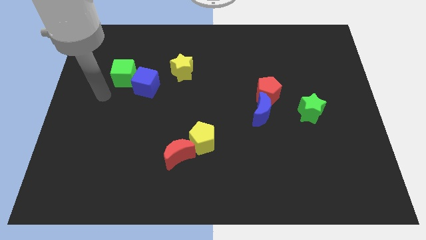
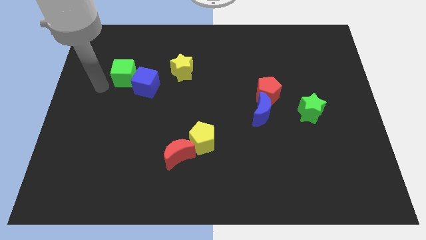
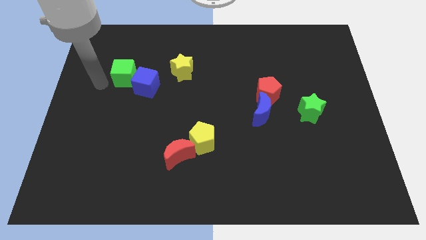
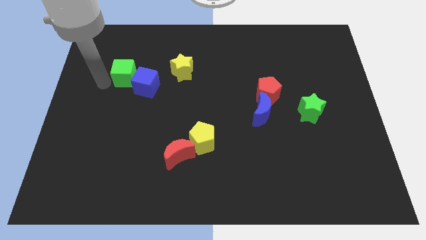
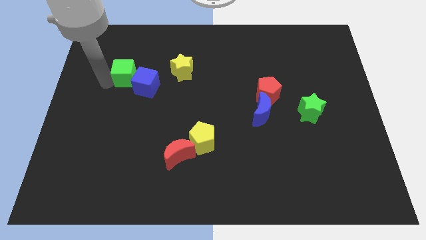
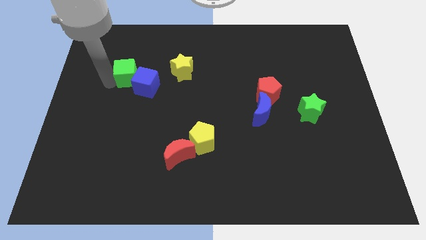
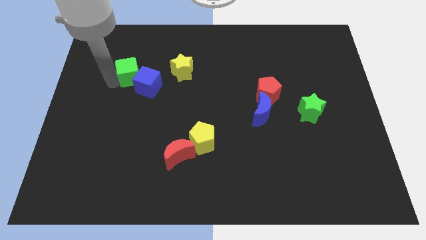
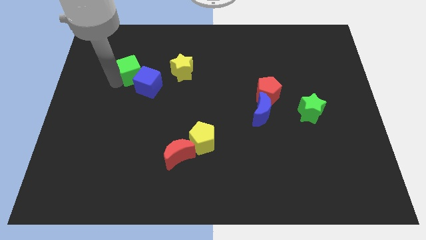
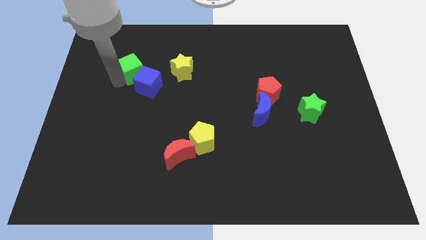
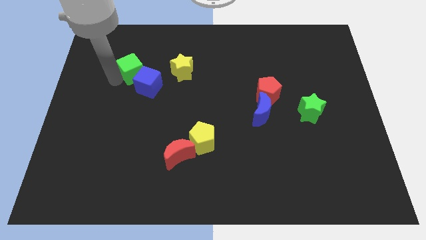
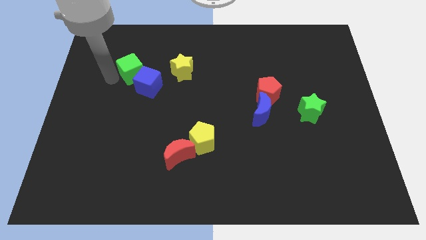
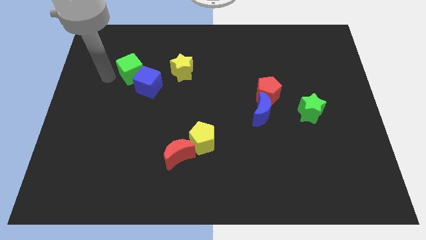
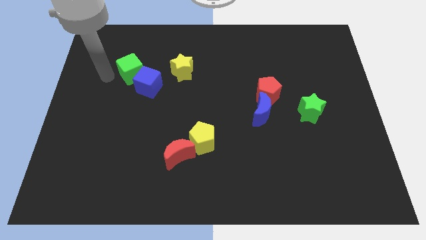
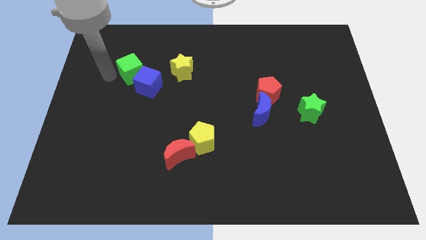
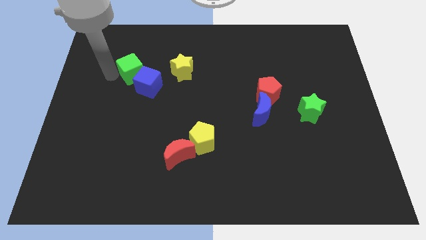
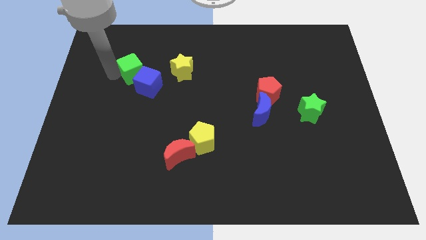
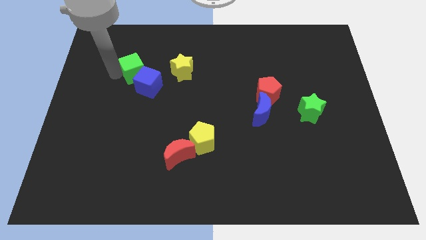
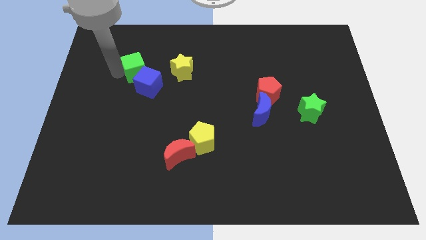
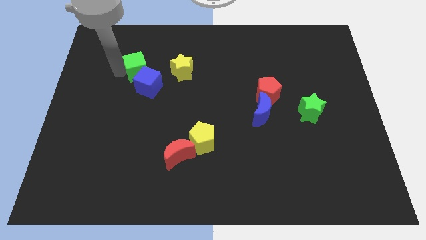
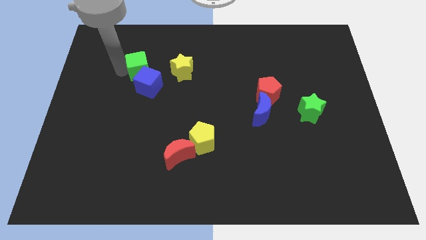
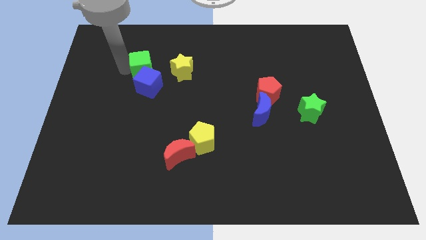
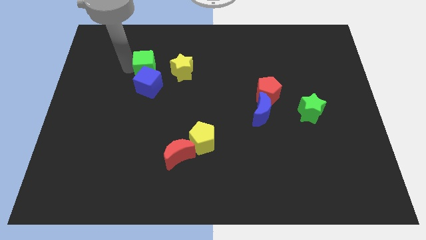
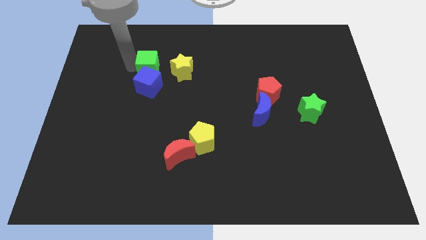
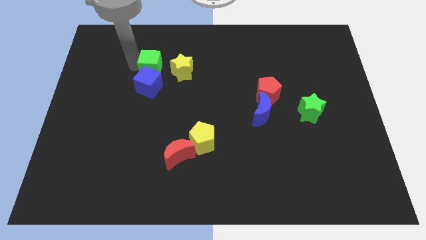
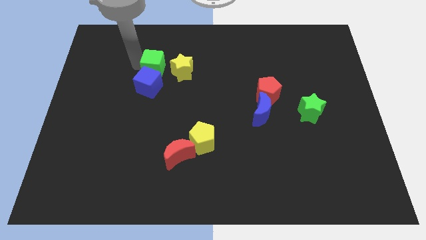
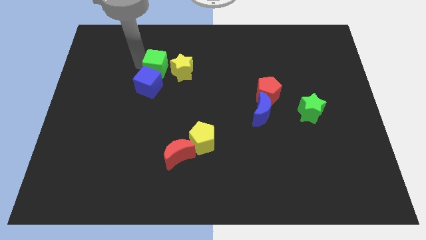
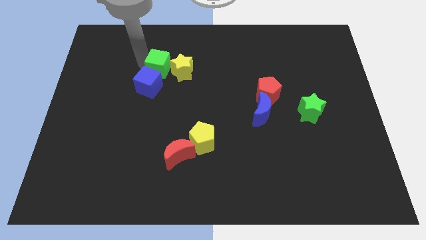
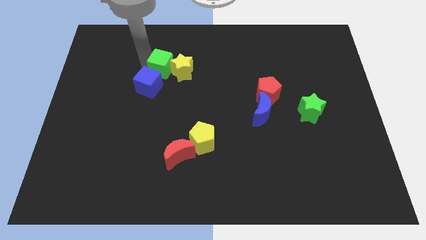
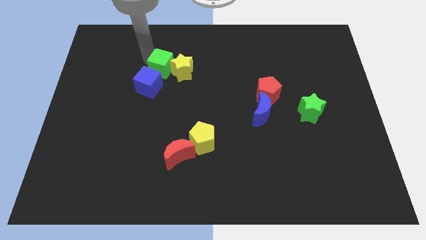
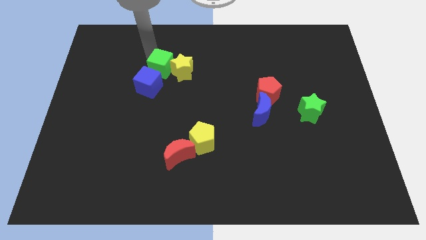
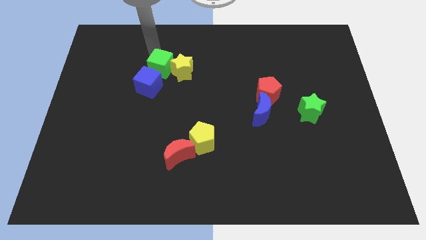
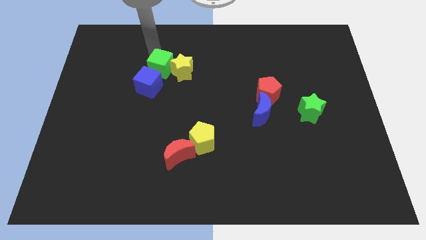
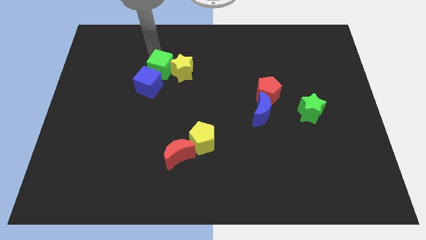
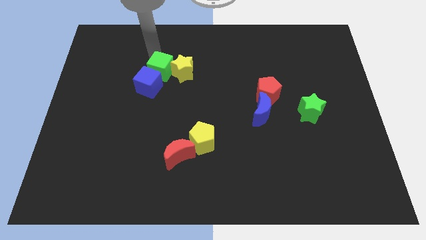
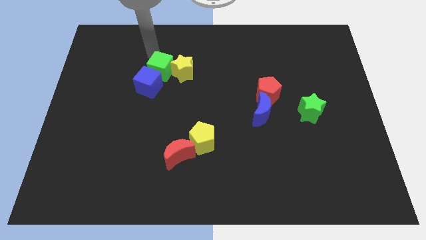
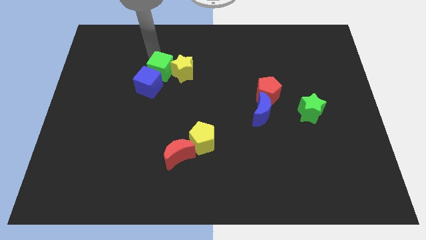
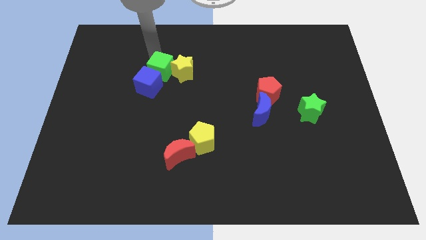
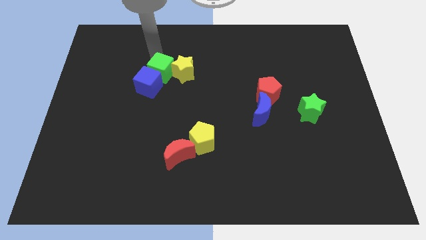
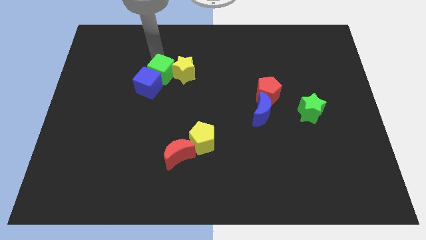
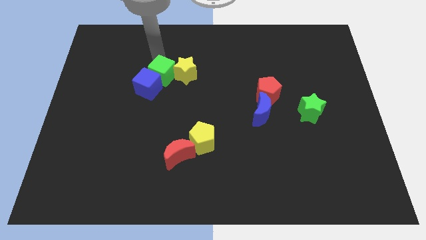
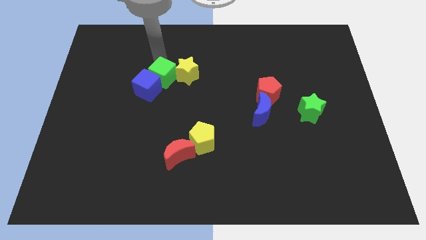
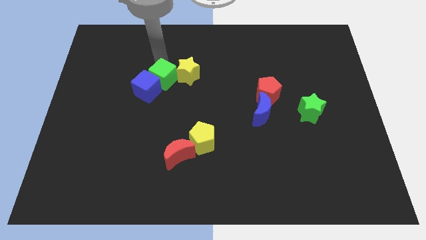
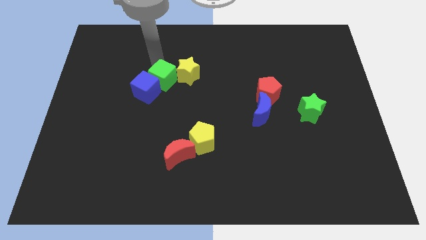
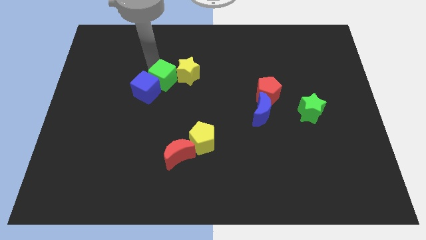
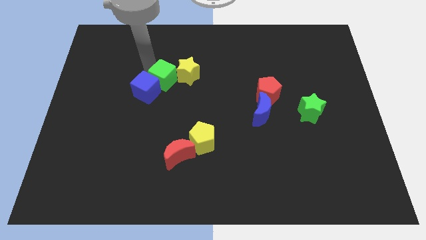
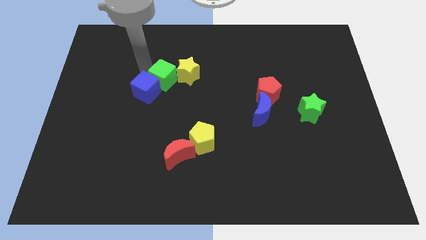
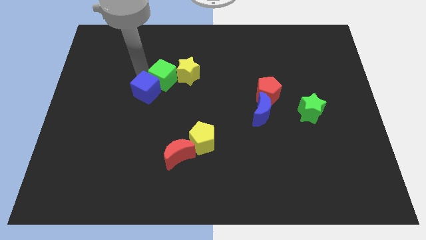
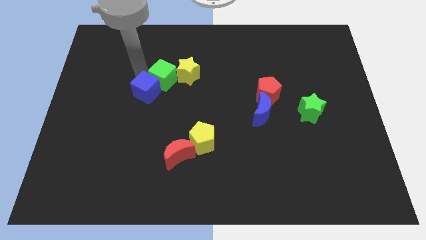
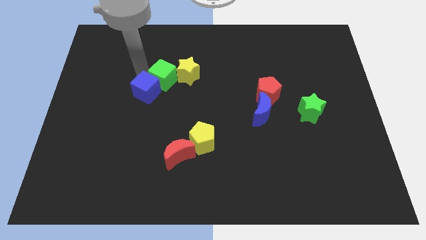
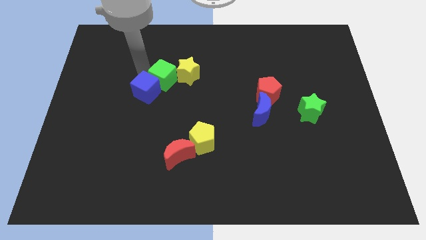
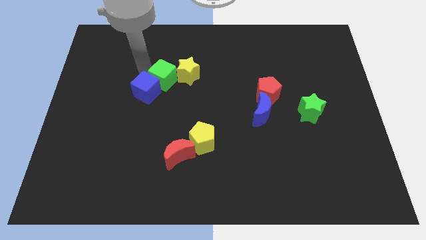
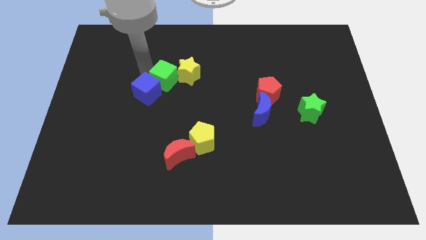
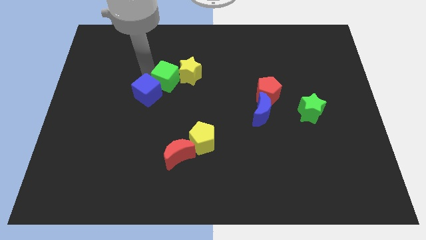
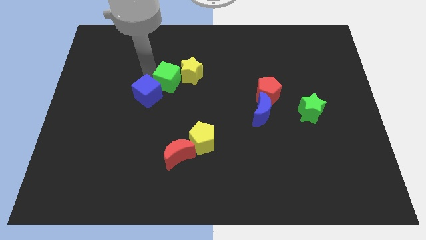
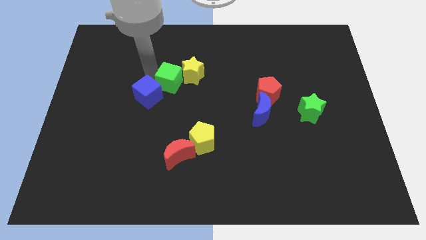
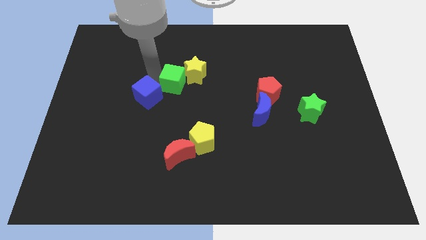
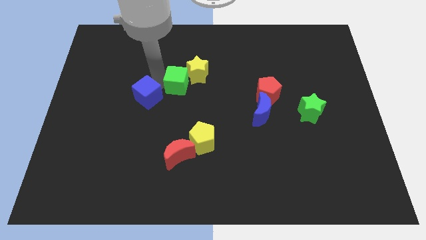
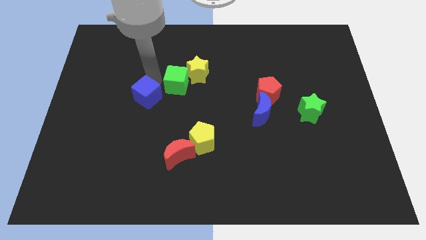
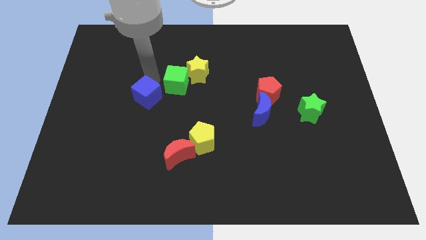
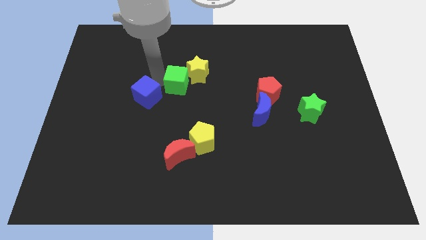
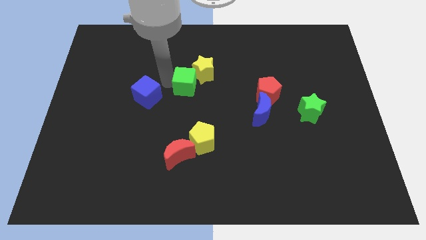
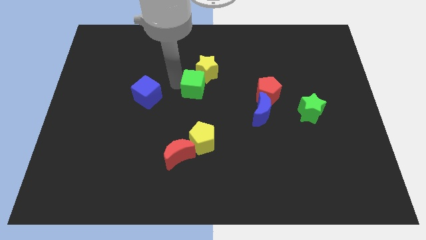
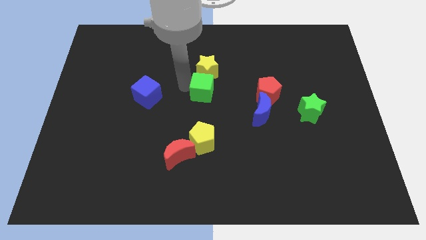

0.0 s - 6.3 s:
push the green cube diagonally down and to the right of the yellow star

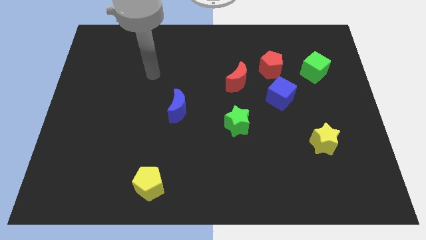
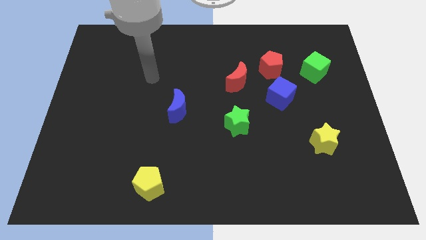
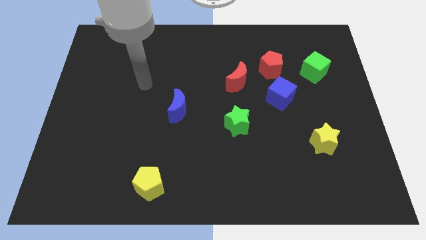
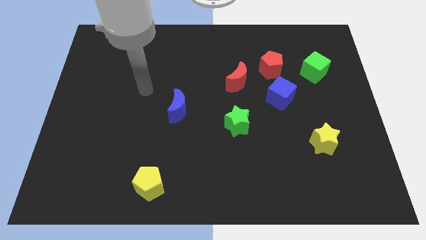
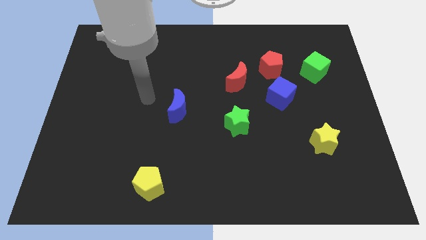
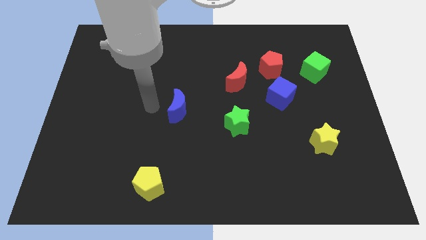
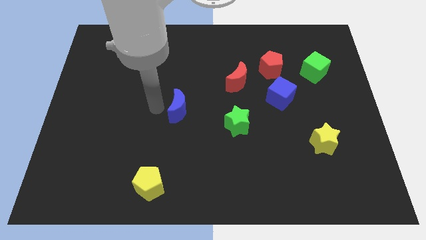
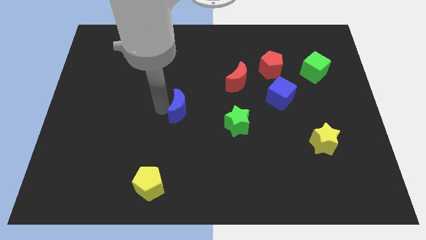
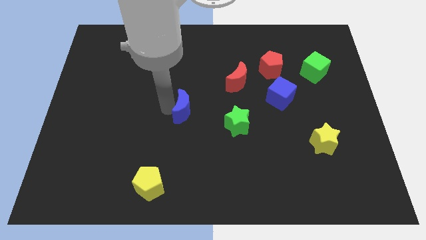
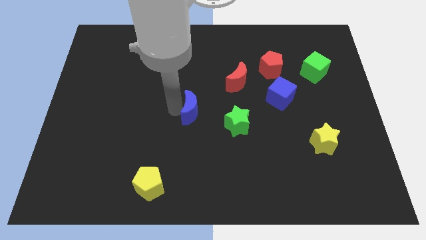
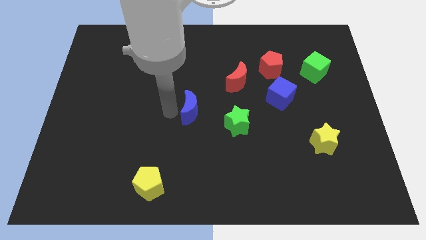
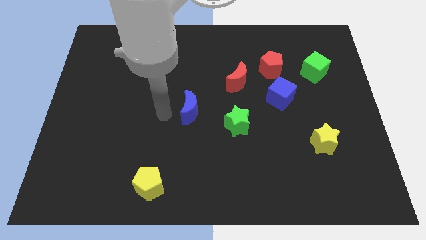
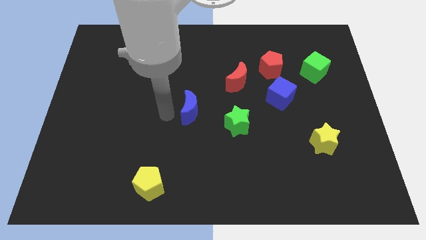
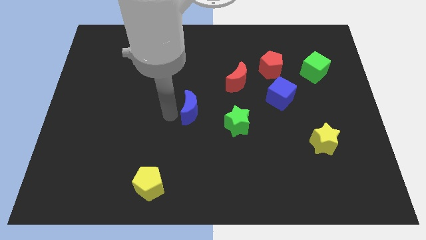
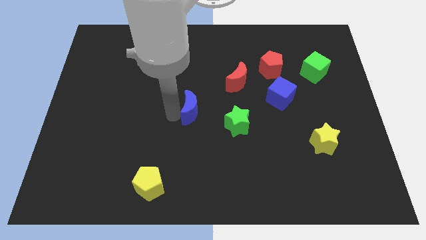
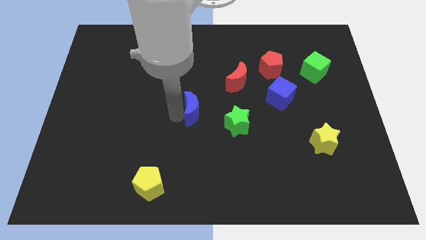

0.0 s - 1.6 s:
slide the blue moon to the top left of the green star
